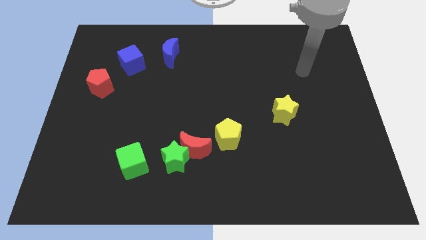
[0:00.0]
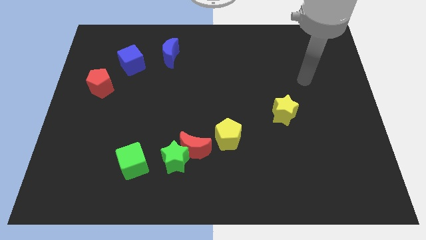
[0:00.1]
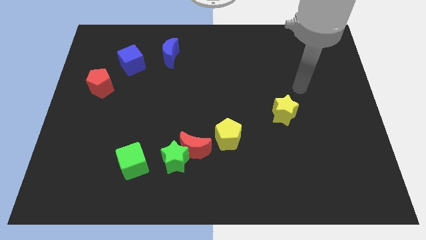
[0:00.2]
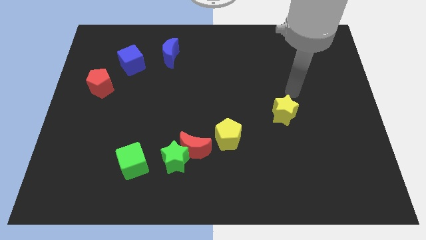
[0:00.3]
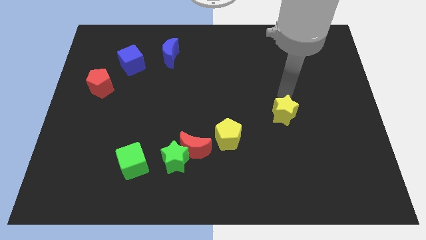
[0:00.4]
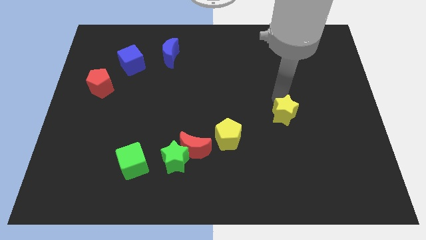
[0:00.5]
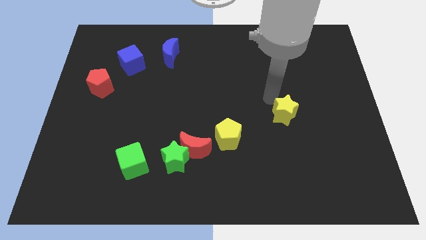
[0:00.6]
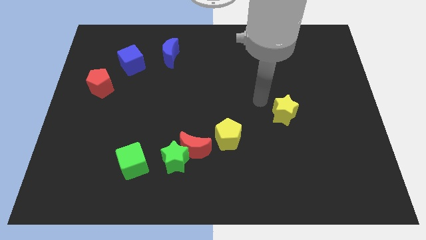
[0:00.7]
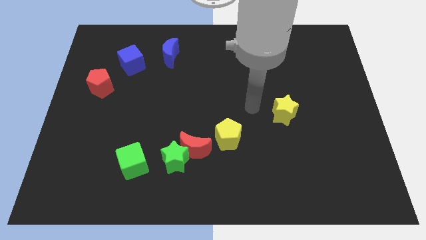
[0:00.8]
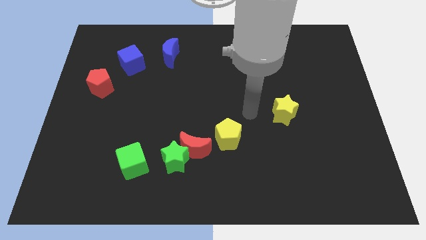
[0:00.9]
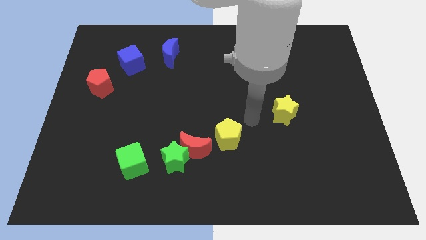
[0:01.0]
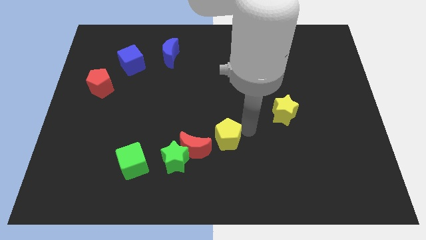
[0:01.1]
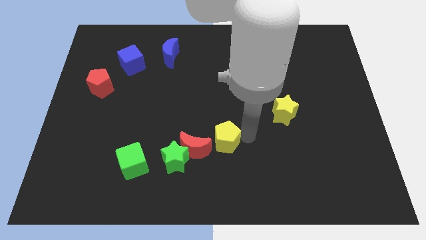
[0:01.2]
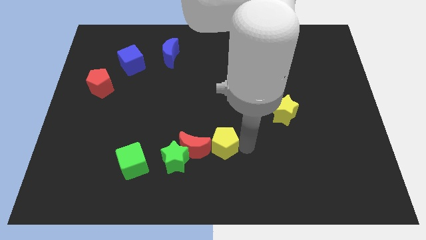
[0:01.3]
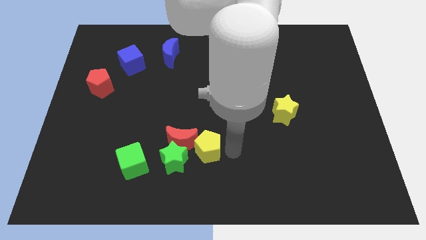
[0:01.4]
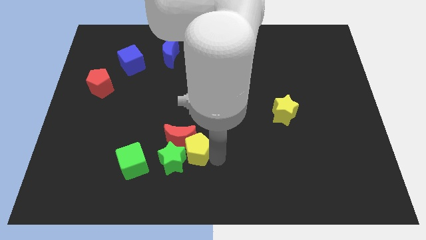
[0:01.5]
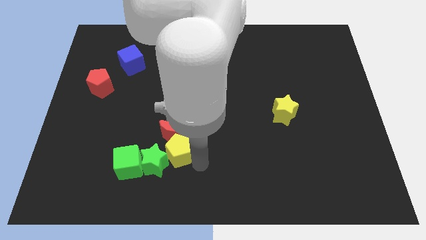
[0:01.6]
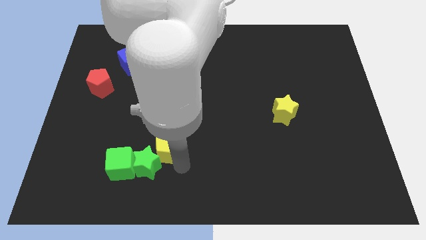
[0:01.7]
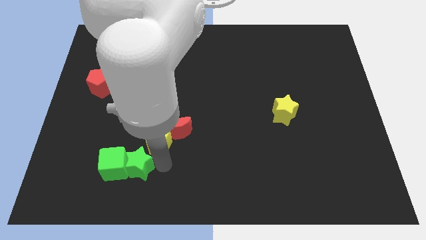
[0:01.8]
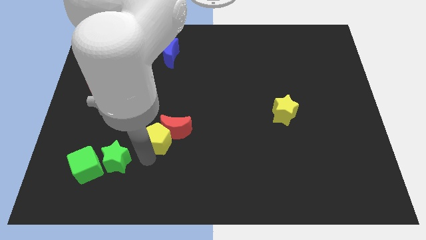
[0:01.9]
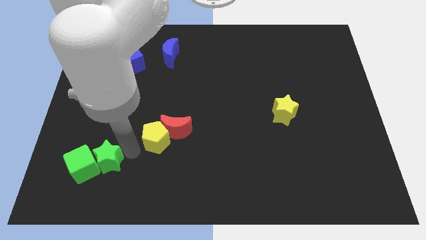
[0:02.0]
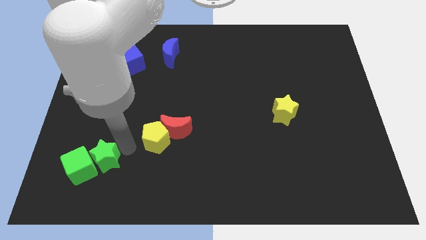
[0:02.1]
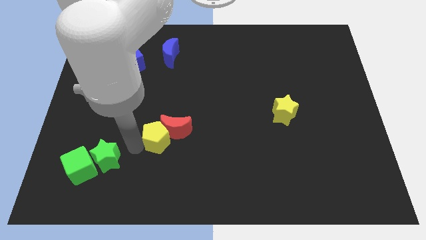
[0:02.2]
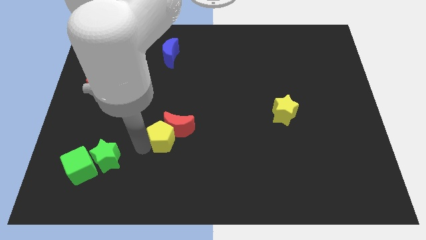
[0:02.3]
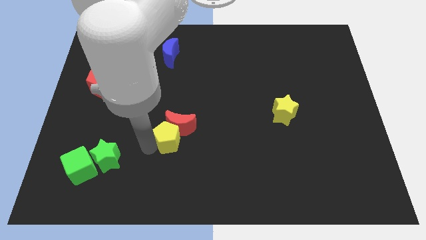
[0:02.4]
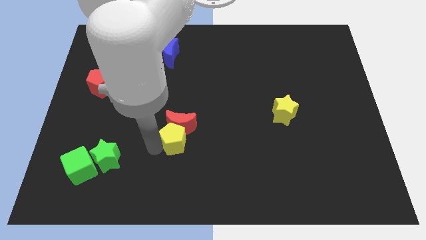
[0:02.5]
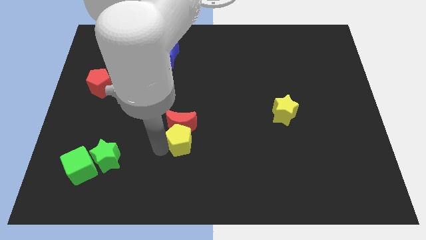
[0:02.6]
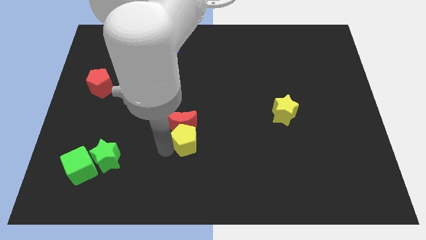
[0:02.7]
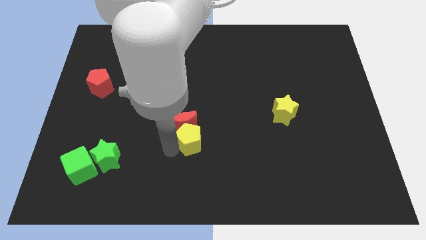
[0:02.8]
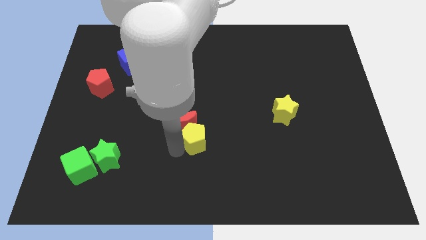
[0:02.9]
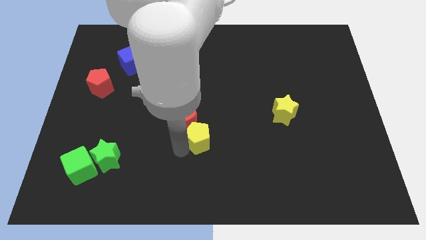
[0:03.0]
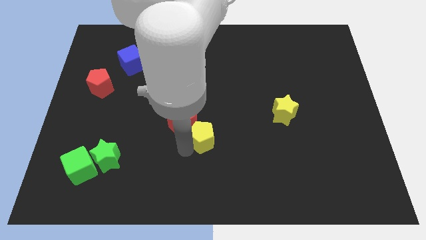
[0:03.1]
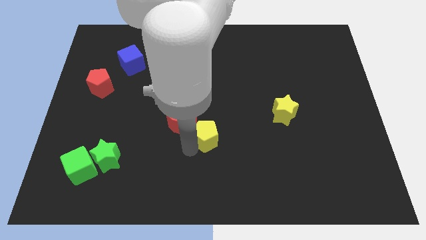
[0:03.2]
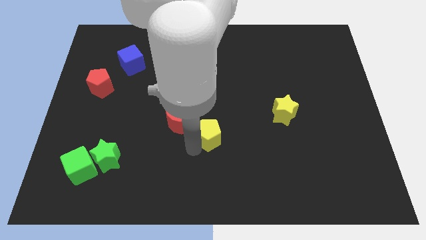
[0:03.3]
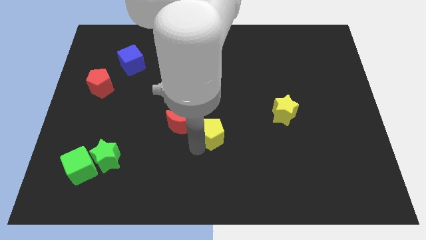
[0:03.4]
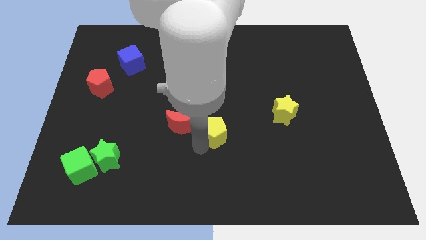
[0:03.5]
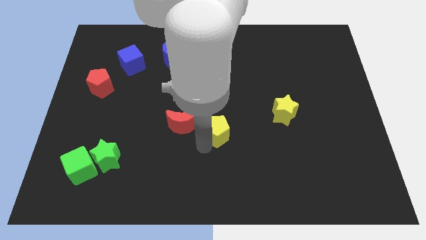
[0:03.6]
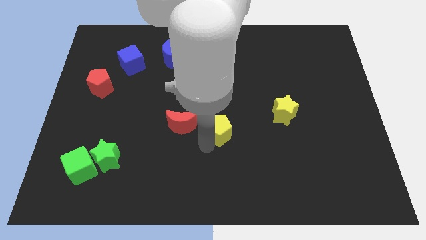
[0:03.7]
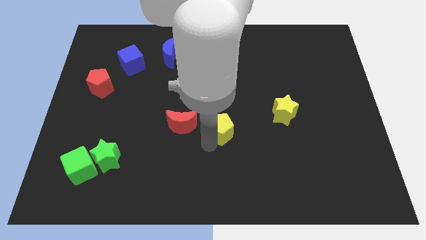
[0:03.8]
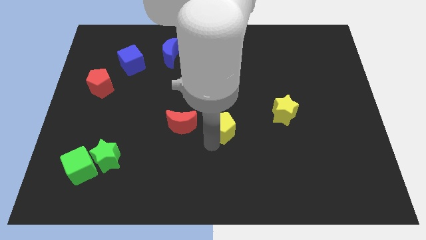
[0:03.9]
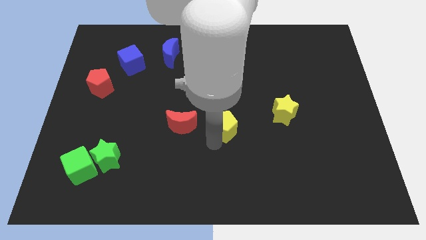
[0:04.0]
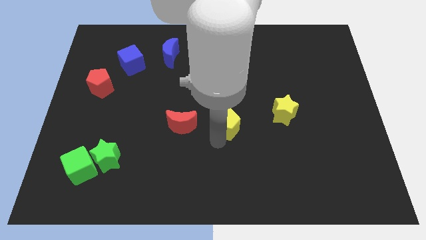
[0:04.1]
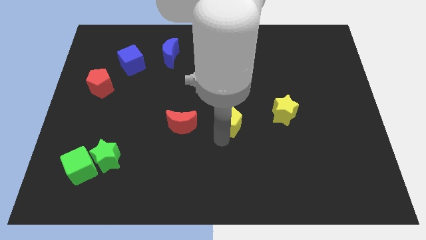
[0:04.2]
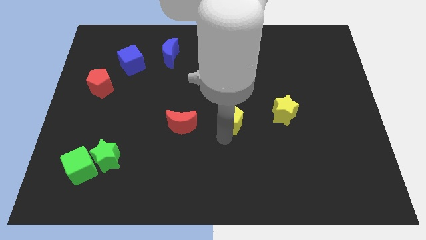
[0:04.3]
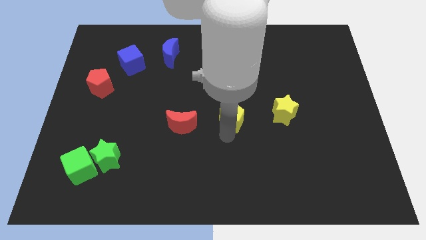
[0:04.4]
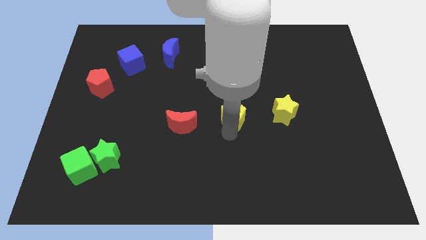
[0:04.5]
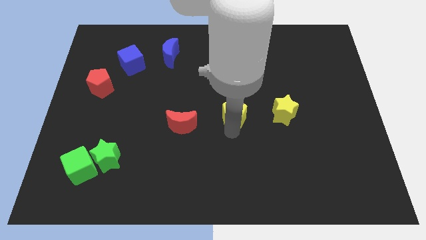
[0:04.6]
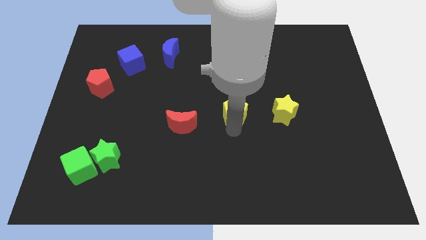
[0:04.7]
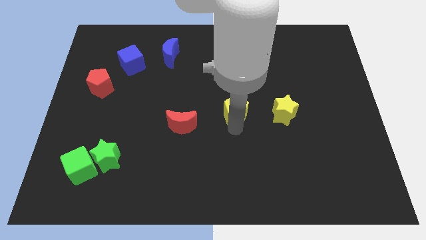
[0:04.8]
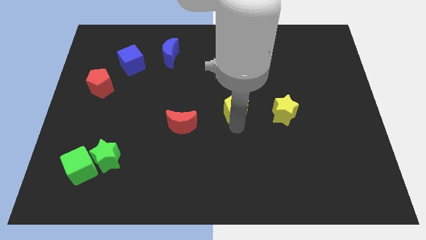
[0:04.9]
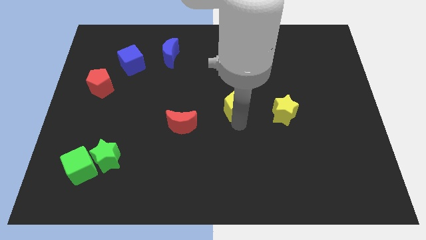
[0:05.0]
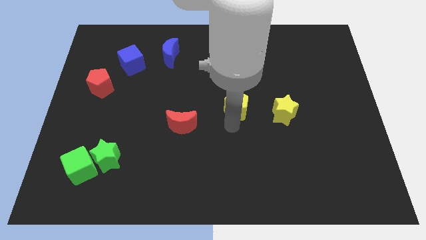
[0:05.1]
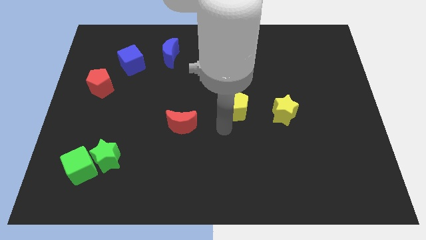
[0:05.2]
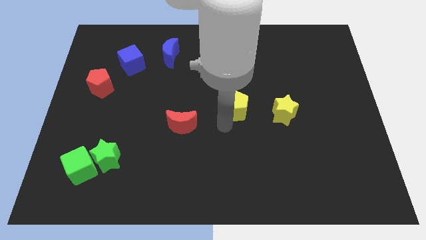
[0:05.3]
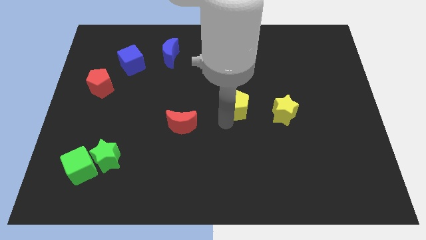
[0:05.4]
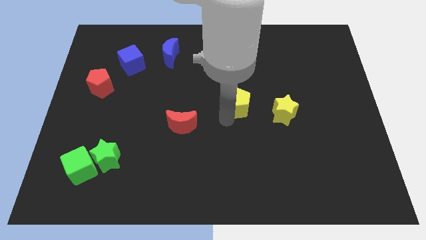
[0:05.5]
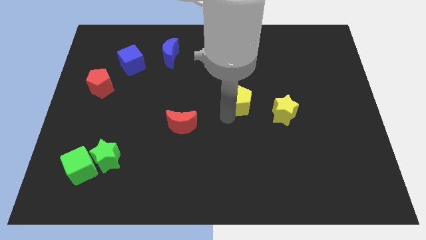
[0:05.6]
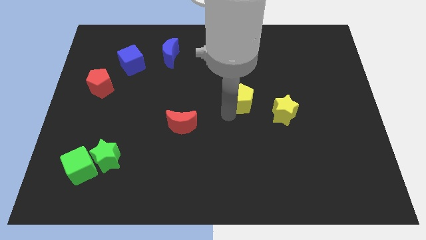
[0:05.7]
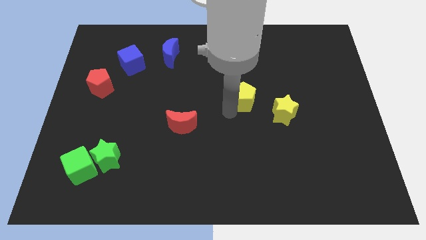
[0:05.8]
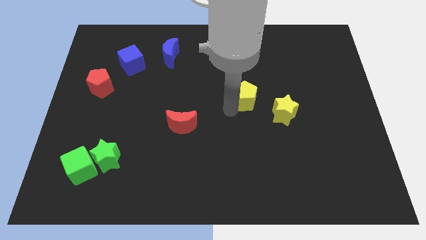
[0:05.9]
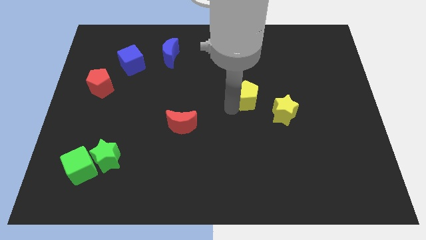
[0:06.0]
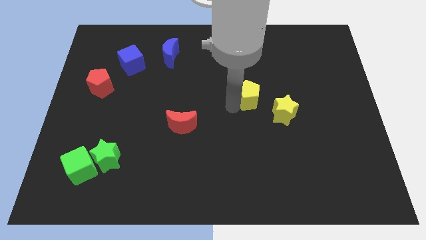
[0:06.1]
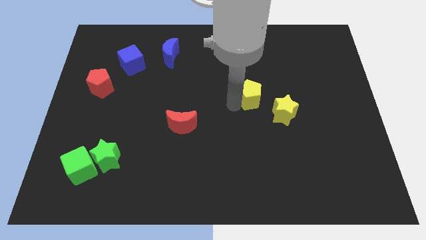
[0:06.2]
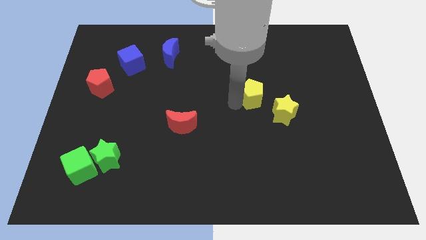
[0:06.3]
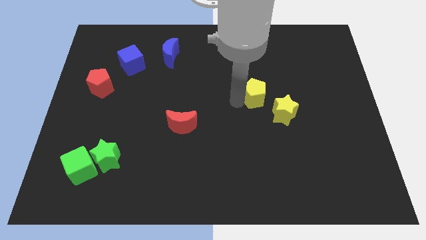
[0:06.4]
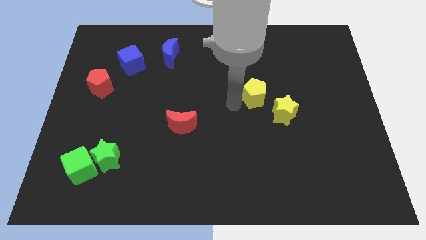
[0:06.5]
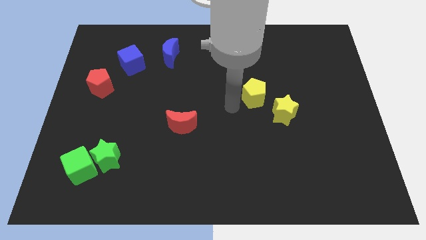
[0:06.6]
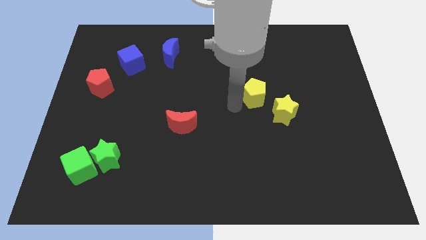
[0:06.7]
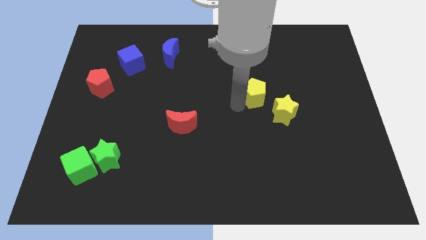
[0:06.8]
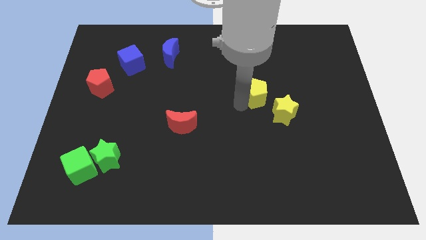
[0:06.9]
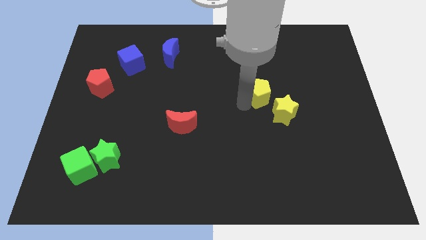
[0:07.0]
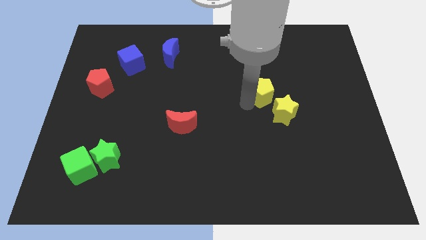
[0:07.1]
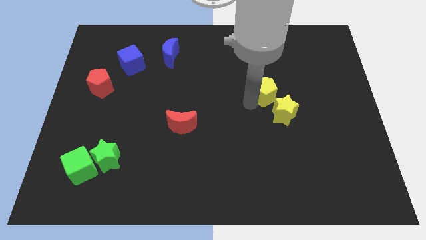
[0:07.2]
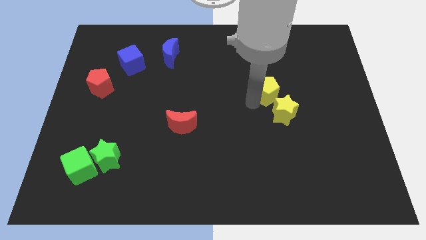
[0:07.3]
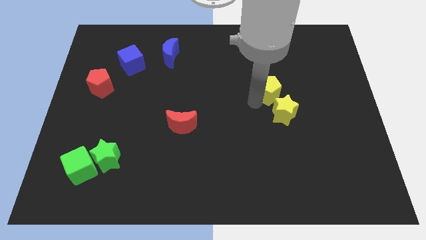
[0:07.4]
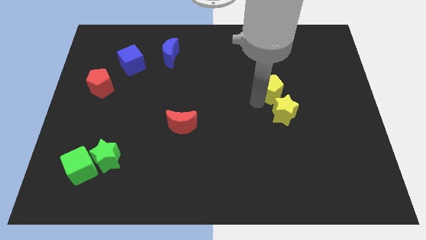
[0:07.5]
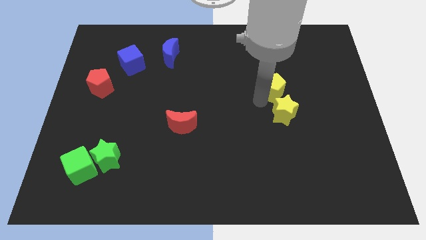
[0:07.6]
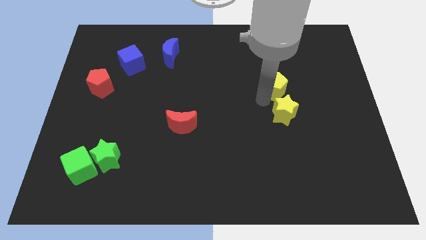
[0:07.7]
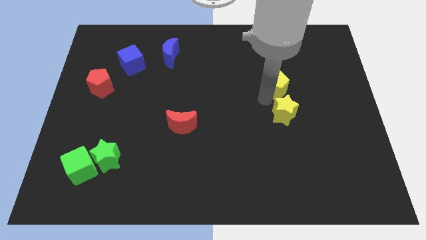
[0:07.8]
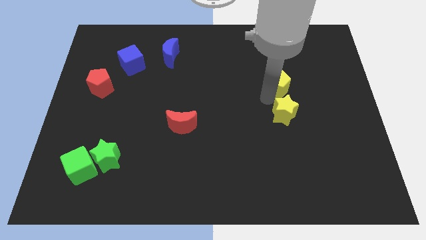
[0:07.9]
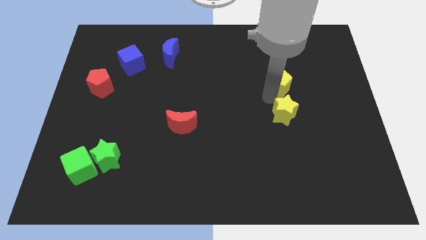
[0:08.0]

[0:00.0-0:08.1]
move the yellow pentagon up and right
